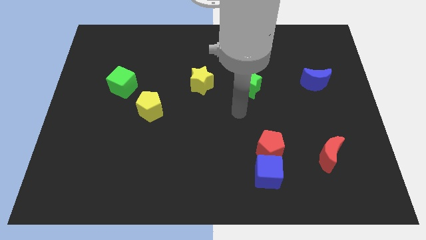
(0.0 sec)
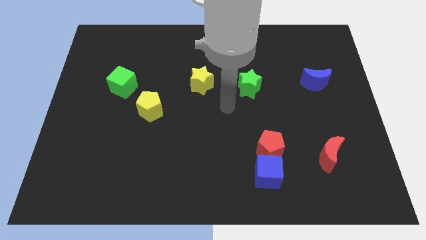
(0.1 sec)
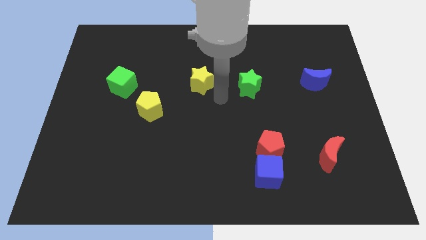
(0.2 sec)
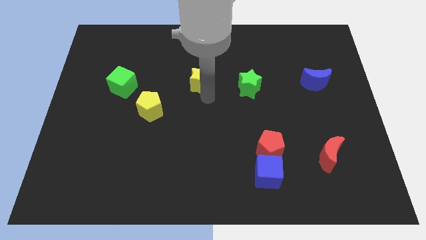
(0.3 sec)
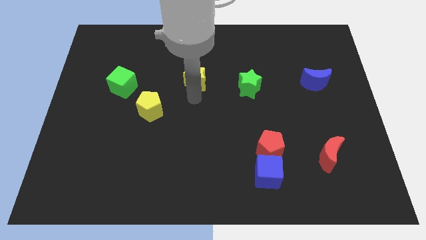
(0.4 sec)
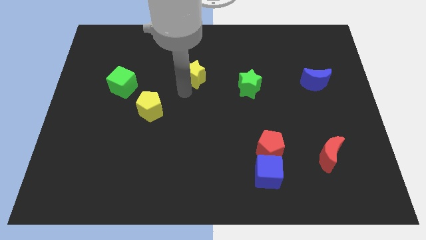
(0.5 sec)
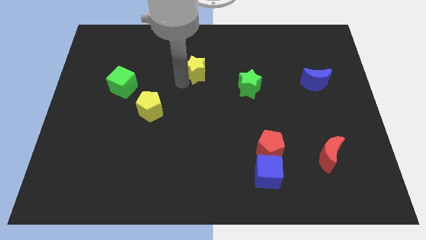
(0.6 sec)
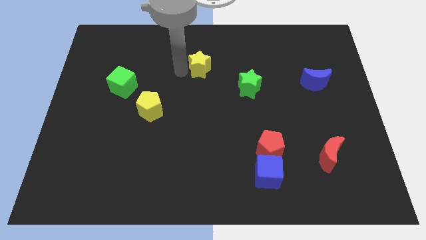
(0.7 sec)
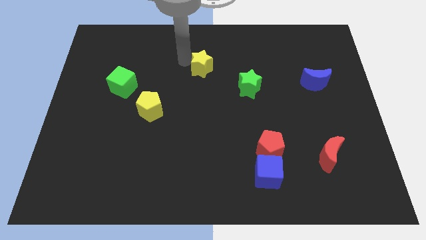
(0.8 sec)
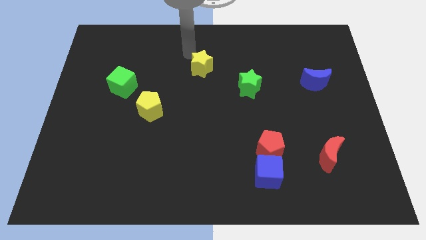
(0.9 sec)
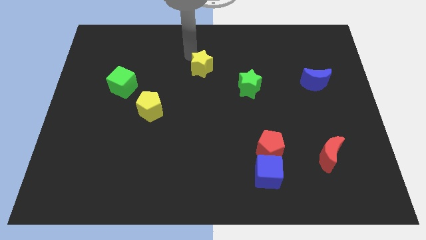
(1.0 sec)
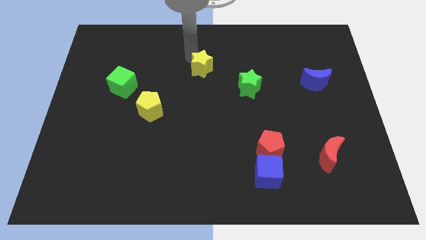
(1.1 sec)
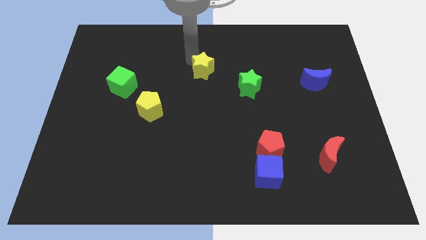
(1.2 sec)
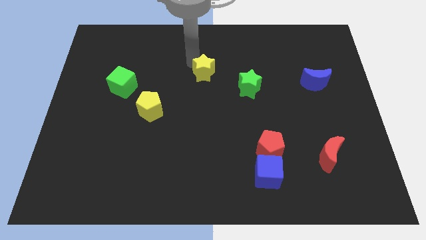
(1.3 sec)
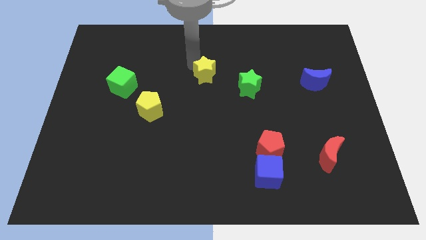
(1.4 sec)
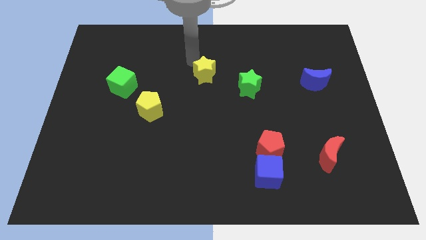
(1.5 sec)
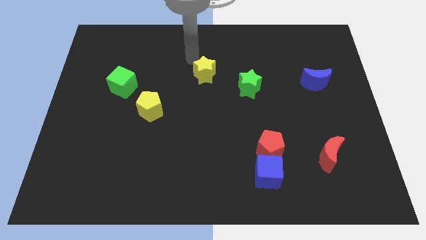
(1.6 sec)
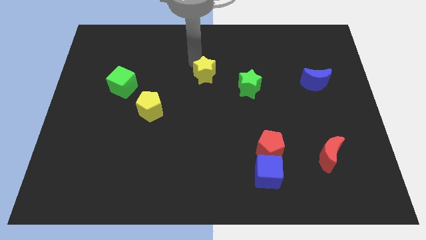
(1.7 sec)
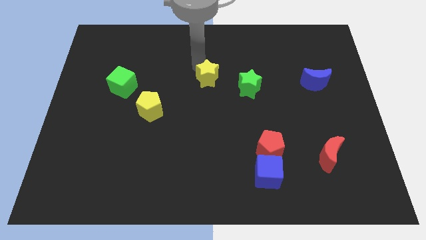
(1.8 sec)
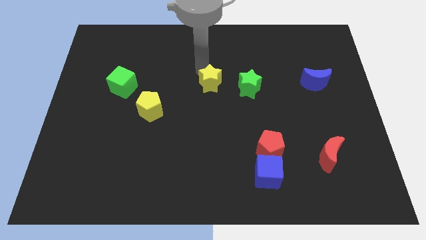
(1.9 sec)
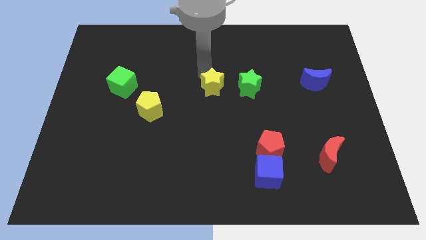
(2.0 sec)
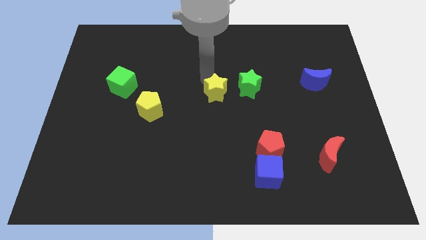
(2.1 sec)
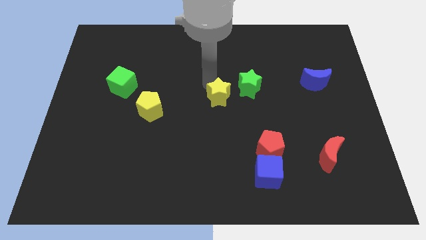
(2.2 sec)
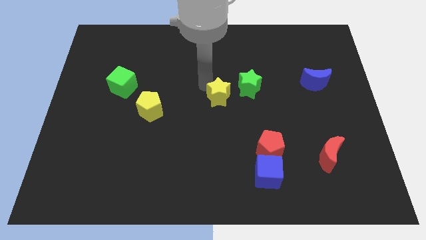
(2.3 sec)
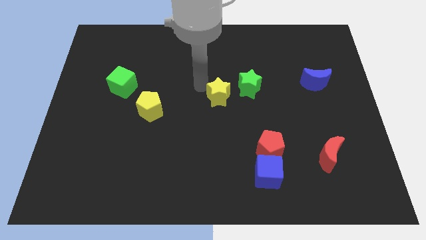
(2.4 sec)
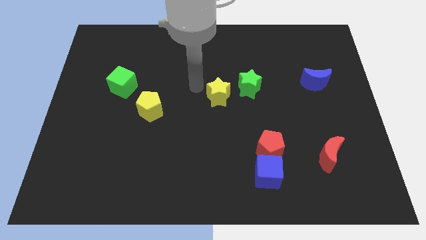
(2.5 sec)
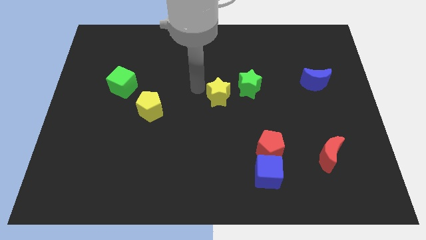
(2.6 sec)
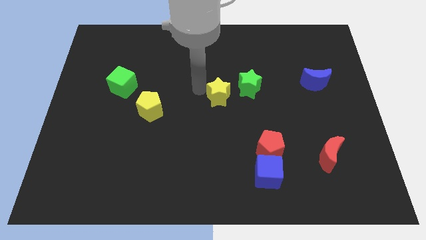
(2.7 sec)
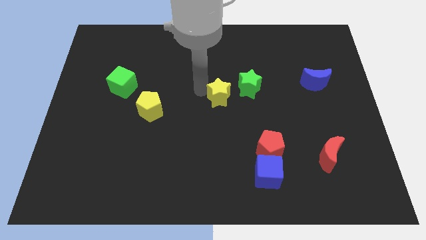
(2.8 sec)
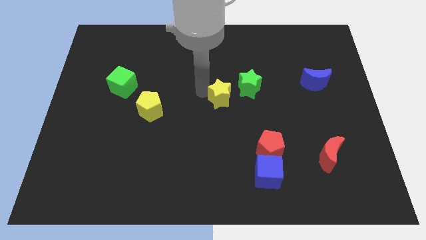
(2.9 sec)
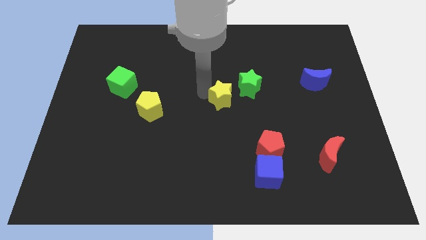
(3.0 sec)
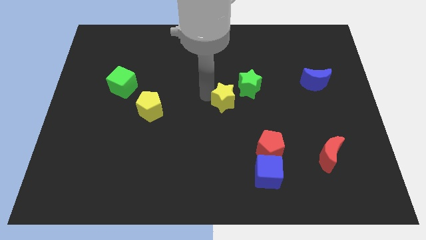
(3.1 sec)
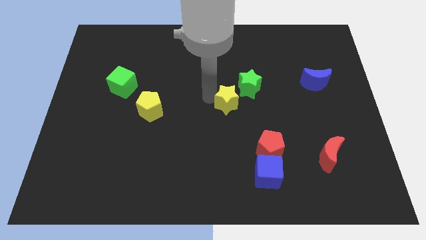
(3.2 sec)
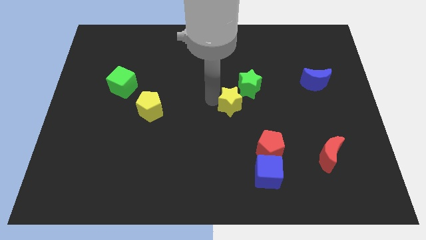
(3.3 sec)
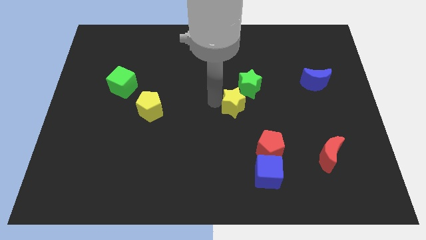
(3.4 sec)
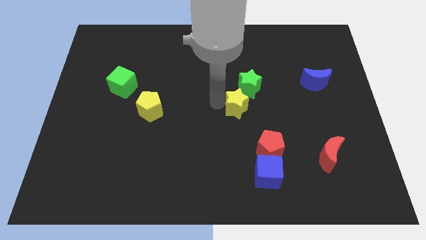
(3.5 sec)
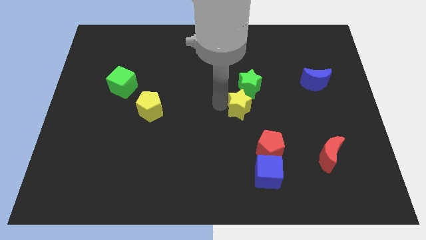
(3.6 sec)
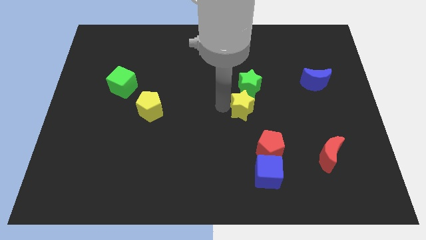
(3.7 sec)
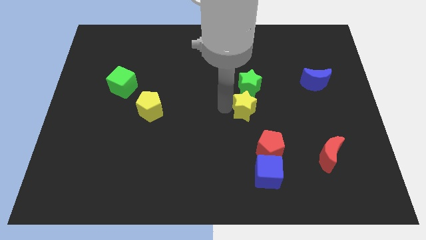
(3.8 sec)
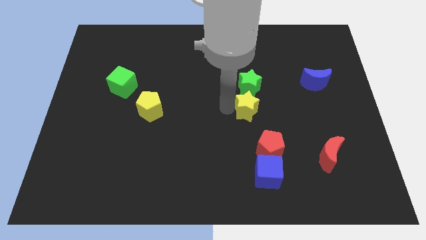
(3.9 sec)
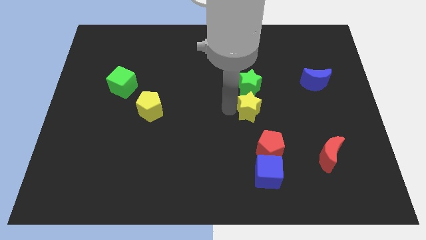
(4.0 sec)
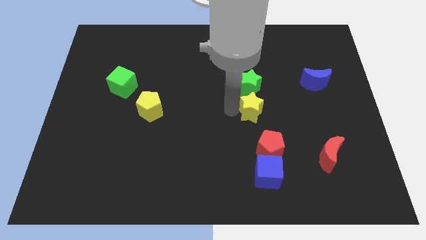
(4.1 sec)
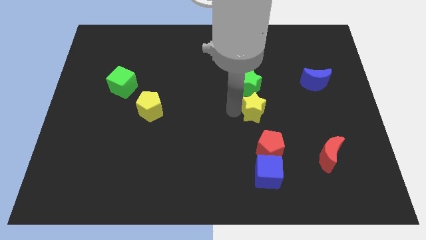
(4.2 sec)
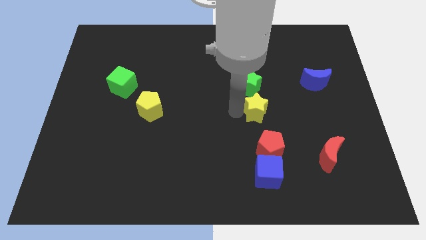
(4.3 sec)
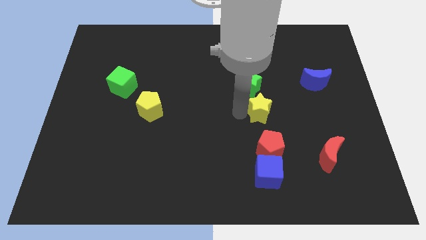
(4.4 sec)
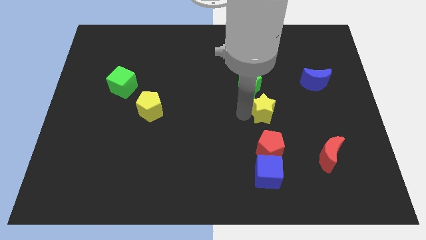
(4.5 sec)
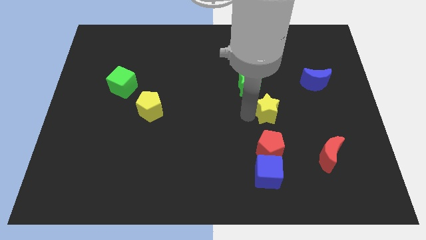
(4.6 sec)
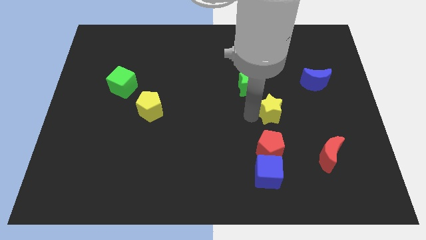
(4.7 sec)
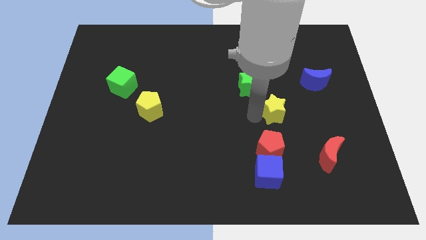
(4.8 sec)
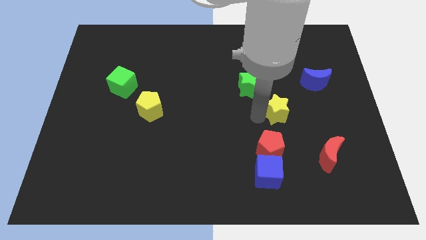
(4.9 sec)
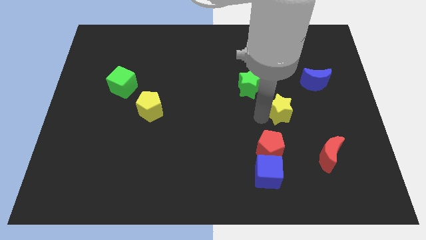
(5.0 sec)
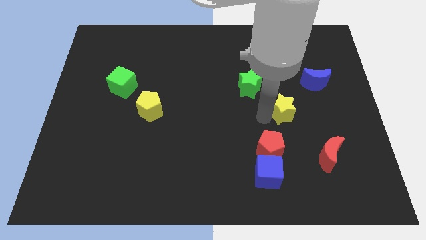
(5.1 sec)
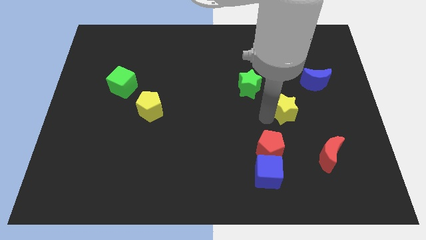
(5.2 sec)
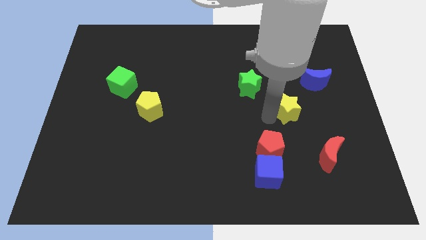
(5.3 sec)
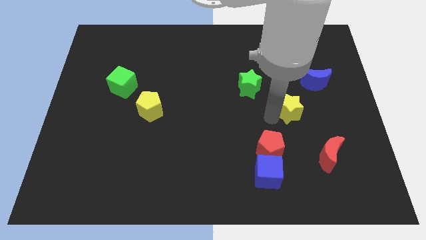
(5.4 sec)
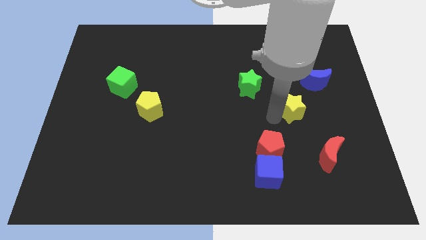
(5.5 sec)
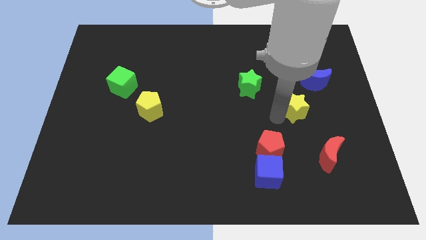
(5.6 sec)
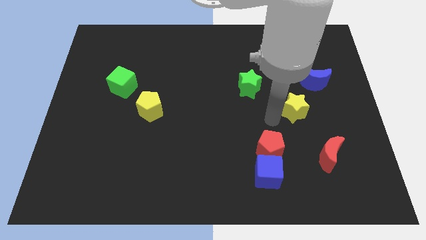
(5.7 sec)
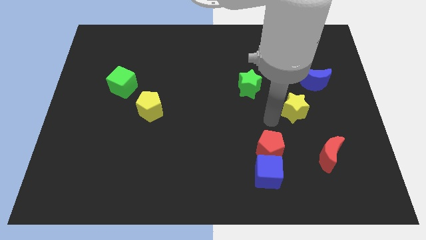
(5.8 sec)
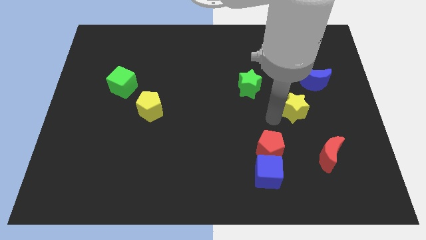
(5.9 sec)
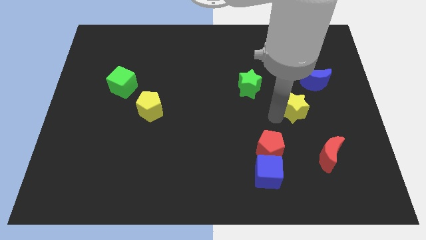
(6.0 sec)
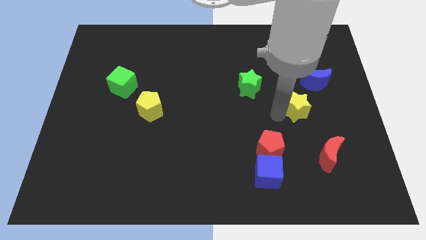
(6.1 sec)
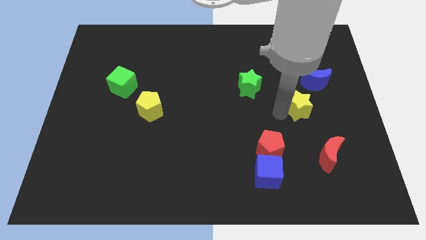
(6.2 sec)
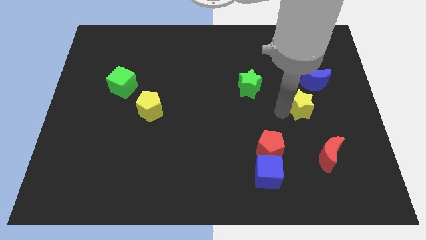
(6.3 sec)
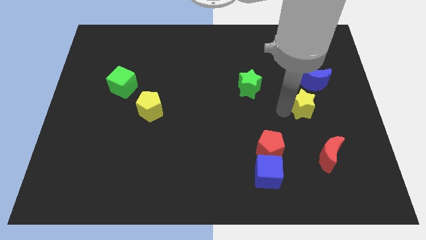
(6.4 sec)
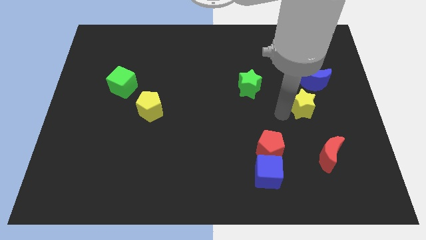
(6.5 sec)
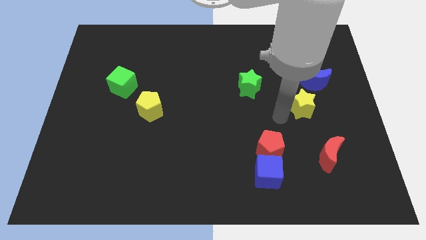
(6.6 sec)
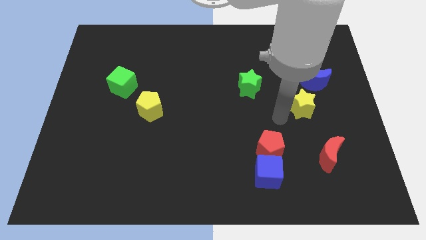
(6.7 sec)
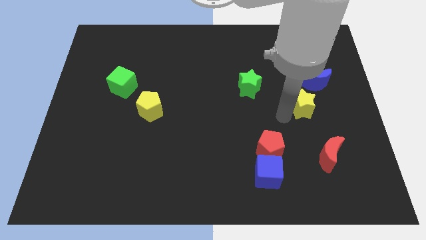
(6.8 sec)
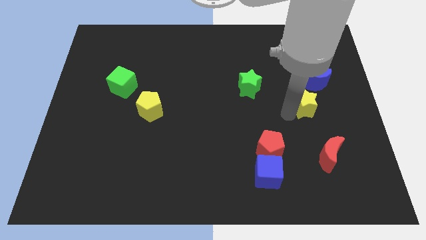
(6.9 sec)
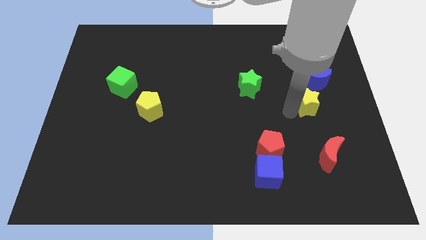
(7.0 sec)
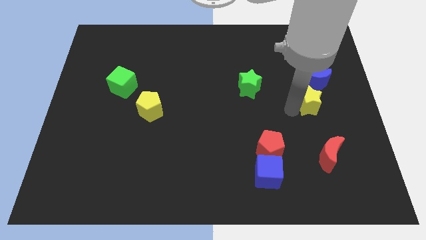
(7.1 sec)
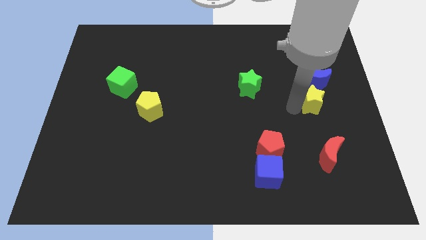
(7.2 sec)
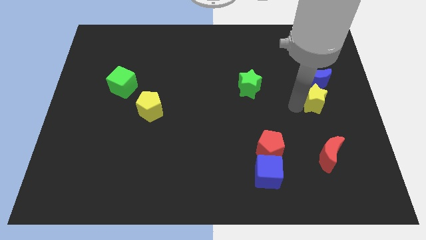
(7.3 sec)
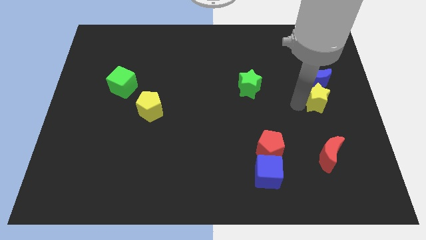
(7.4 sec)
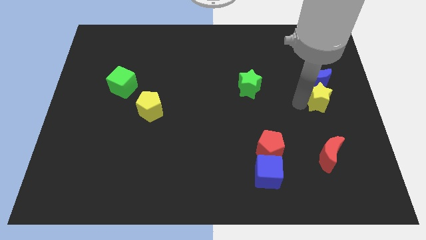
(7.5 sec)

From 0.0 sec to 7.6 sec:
slide the yellow star to the center right
